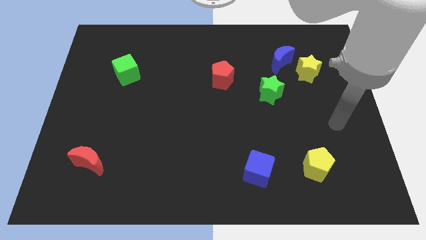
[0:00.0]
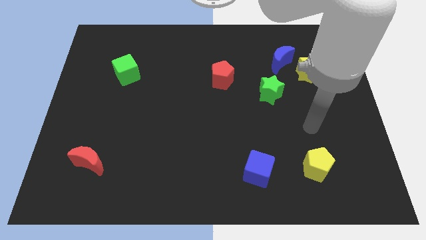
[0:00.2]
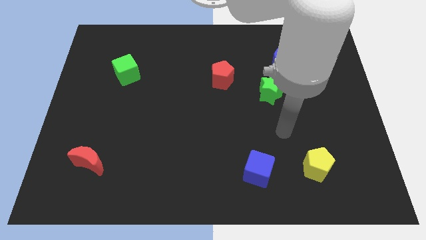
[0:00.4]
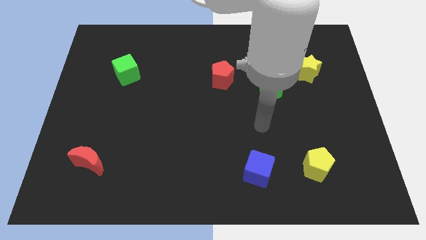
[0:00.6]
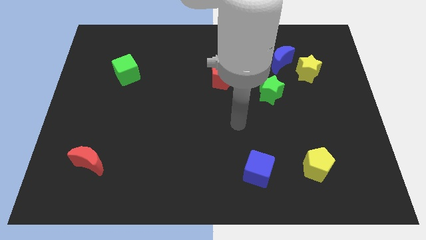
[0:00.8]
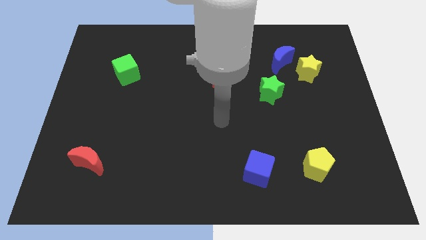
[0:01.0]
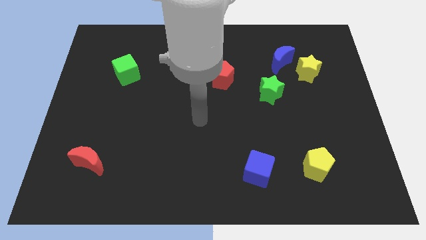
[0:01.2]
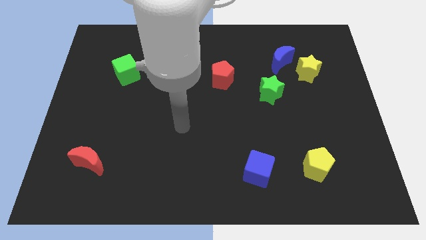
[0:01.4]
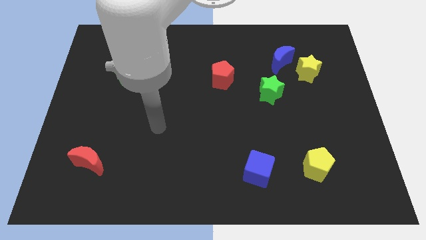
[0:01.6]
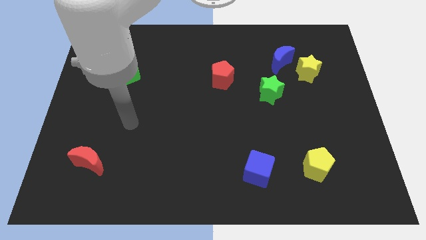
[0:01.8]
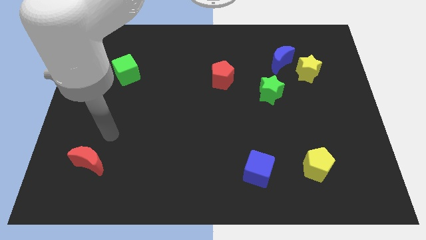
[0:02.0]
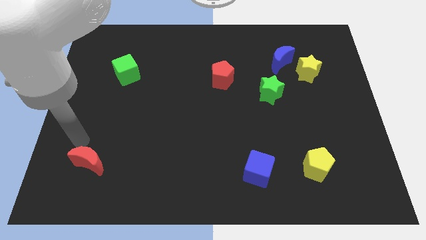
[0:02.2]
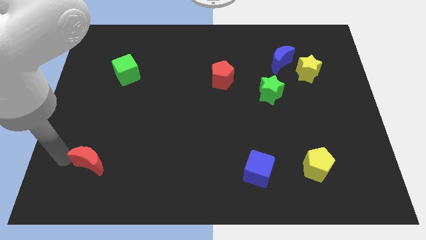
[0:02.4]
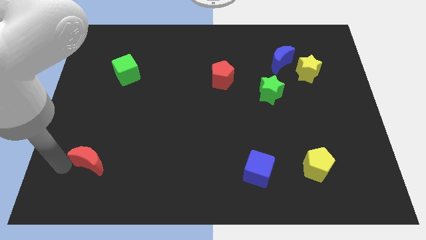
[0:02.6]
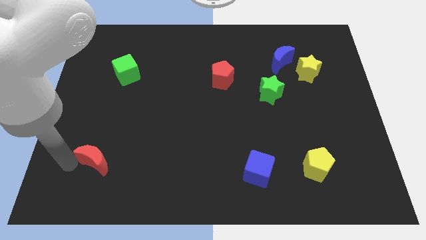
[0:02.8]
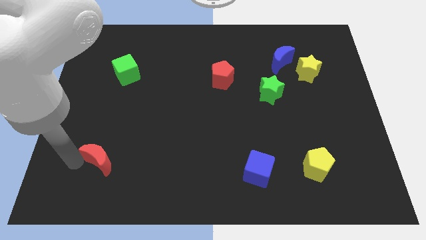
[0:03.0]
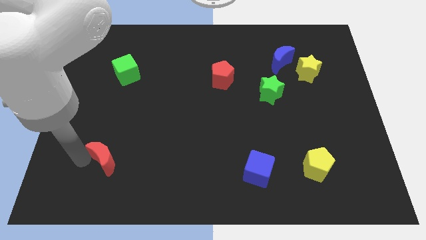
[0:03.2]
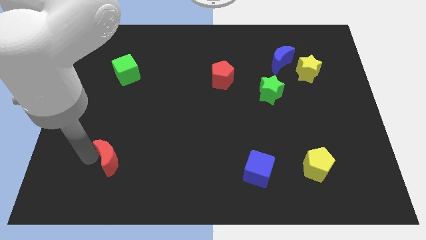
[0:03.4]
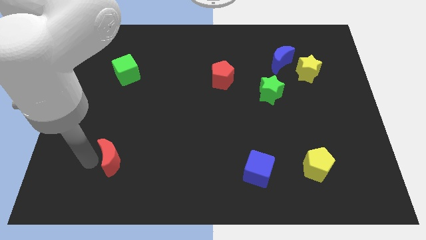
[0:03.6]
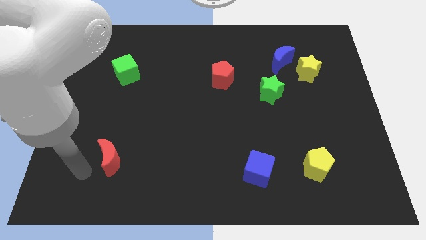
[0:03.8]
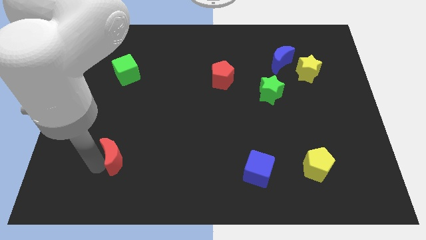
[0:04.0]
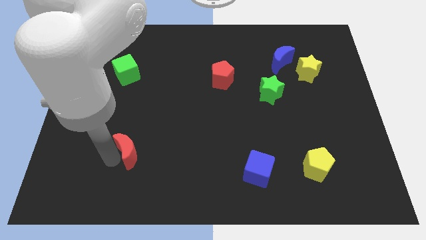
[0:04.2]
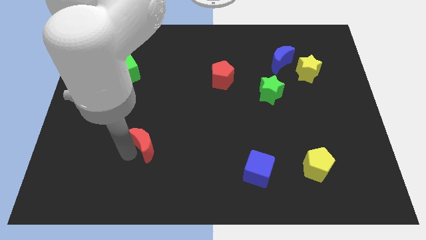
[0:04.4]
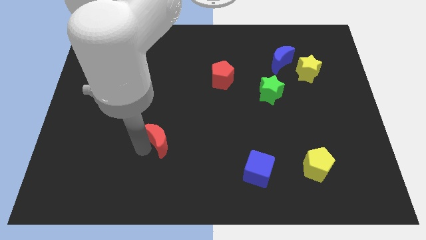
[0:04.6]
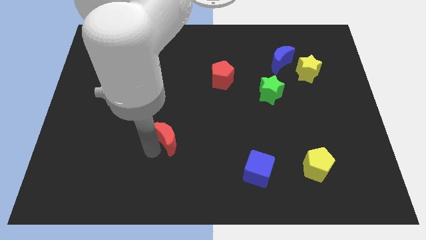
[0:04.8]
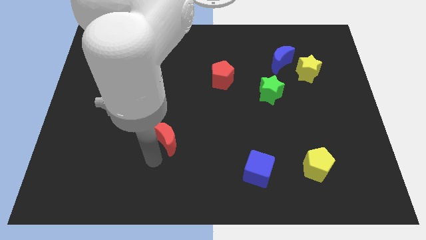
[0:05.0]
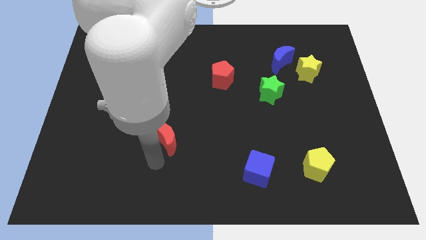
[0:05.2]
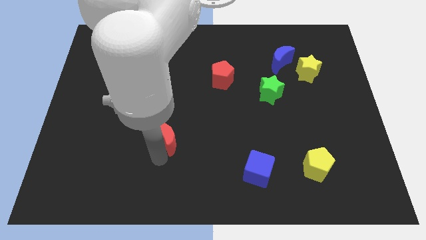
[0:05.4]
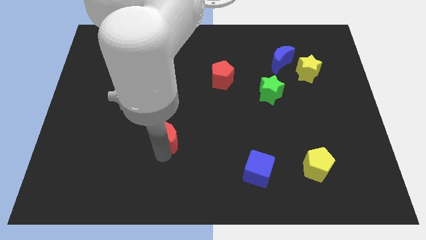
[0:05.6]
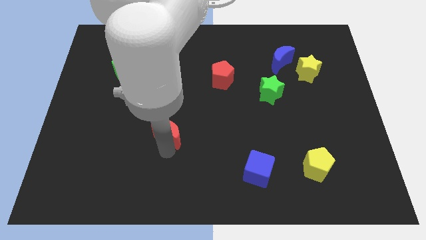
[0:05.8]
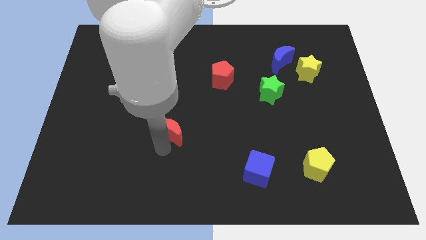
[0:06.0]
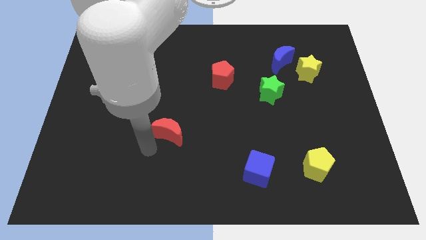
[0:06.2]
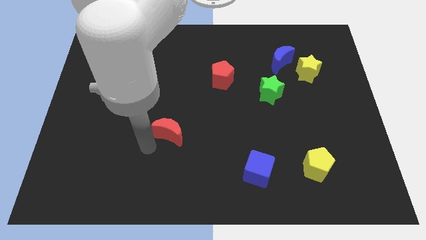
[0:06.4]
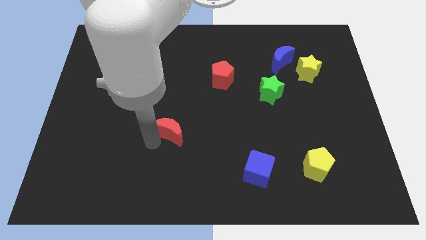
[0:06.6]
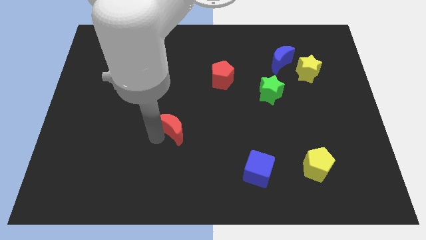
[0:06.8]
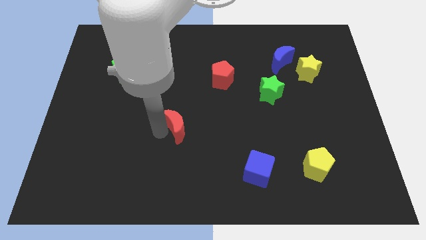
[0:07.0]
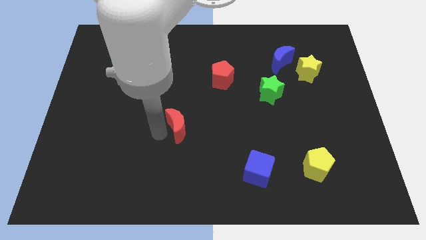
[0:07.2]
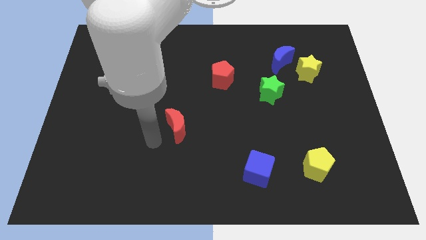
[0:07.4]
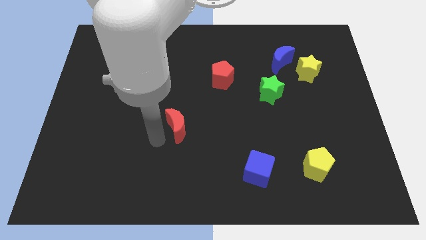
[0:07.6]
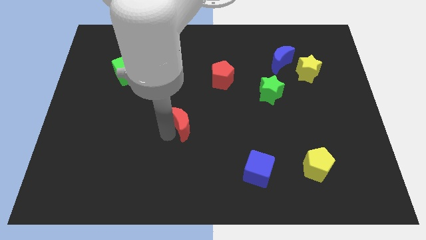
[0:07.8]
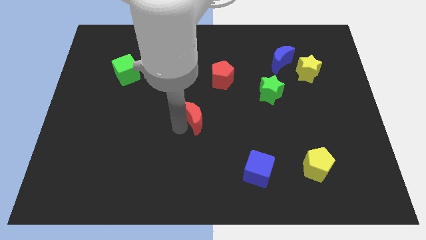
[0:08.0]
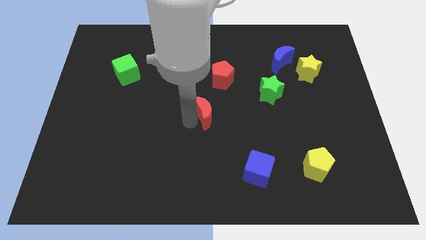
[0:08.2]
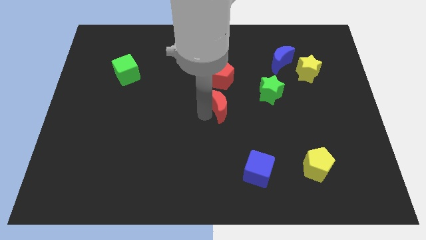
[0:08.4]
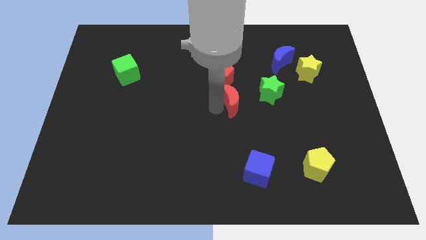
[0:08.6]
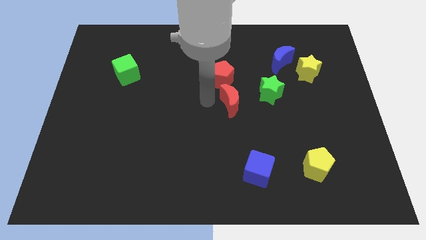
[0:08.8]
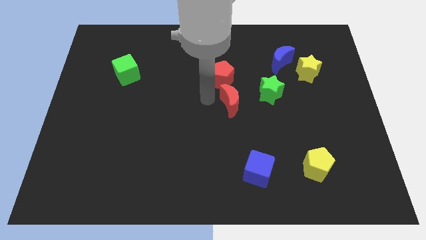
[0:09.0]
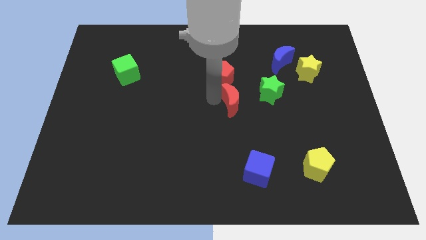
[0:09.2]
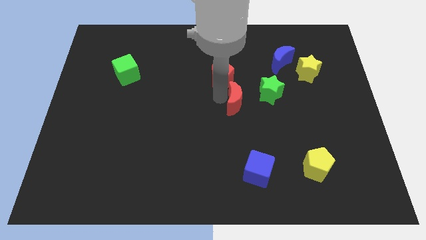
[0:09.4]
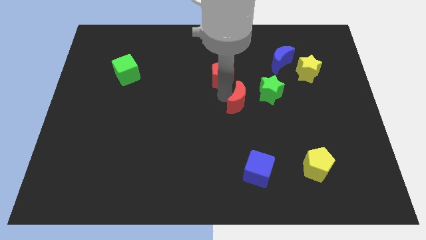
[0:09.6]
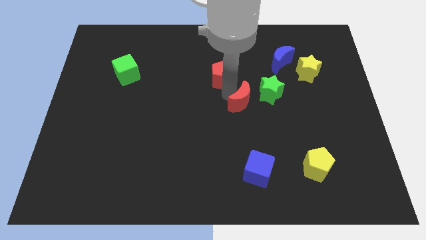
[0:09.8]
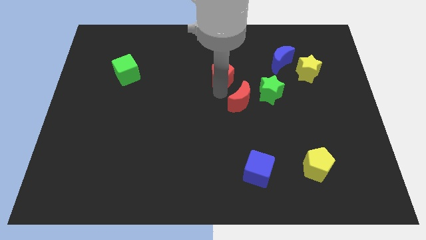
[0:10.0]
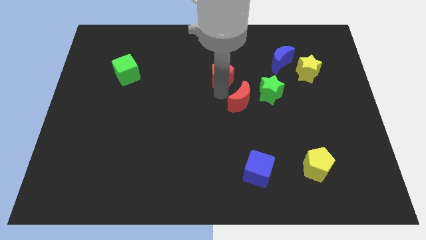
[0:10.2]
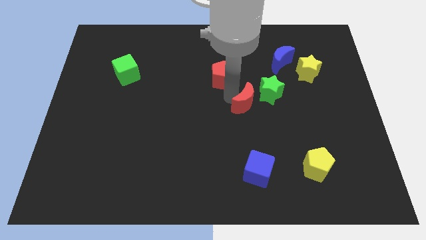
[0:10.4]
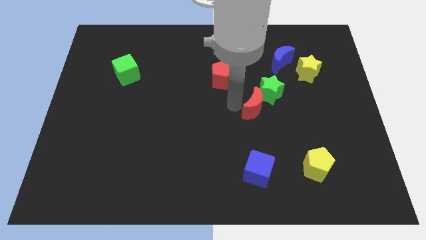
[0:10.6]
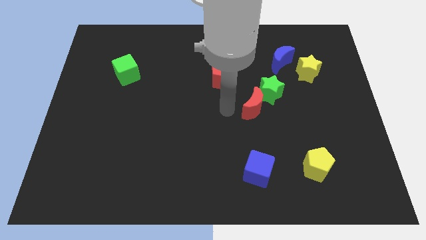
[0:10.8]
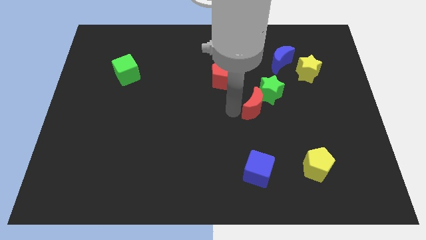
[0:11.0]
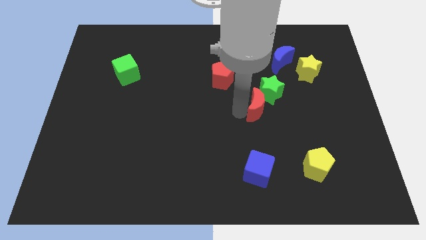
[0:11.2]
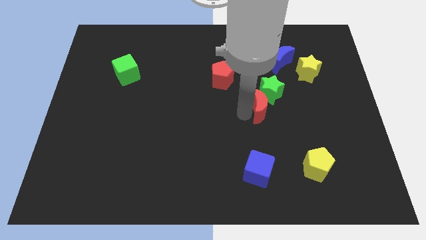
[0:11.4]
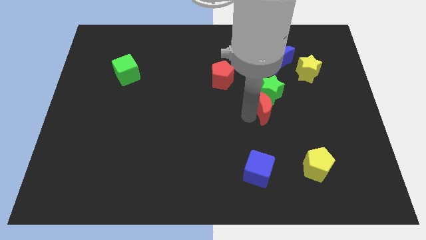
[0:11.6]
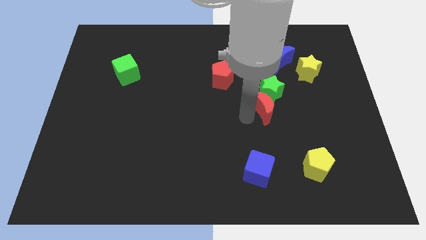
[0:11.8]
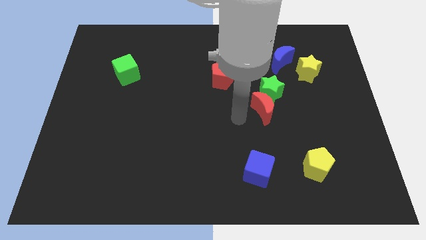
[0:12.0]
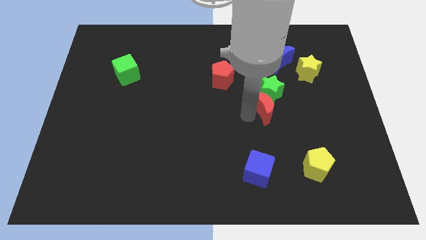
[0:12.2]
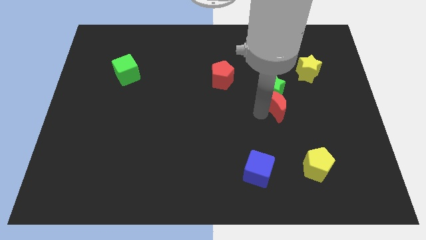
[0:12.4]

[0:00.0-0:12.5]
put the red moon to the bottom side of the blue moon

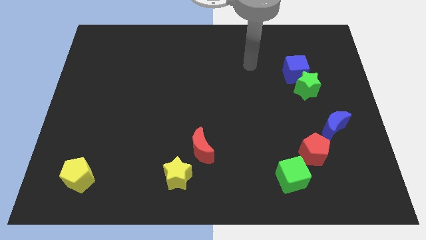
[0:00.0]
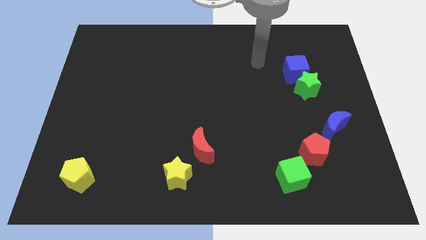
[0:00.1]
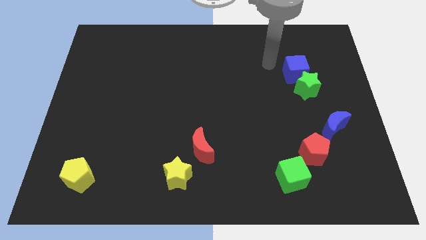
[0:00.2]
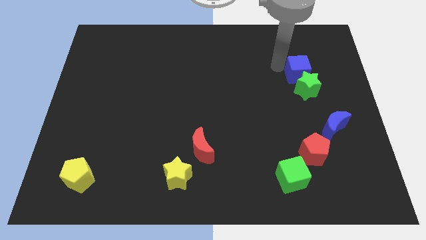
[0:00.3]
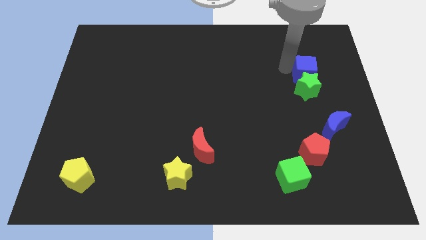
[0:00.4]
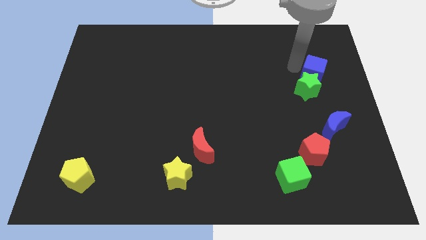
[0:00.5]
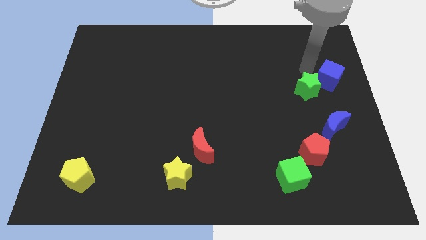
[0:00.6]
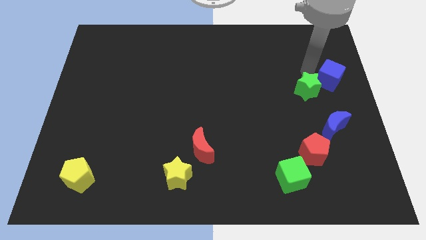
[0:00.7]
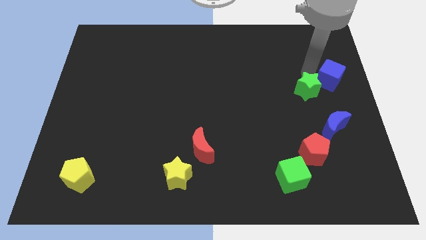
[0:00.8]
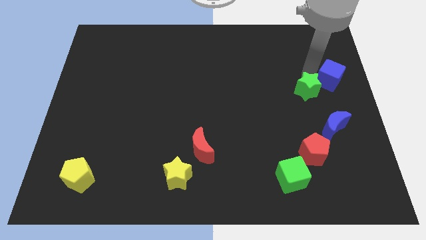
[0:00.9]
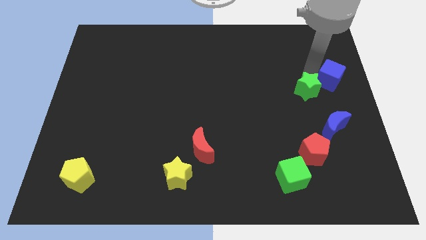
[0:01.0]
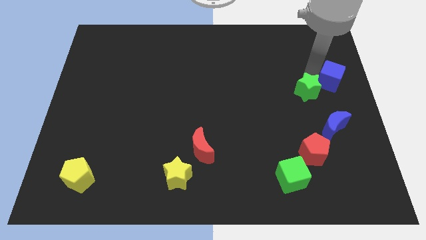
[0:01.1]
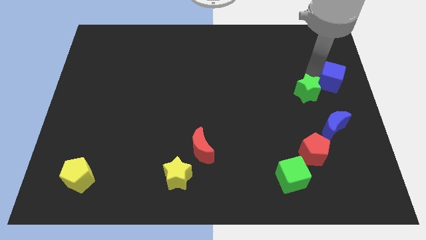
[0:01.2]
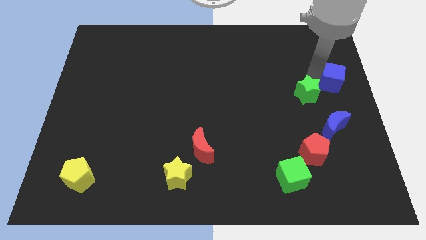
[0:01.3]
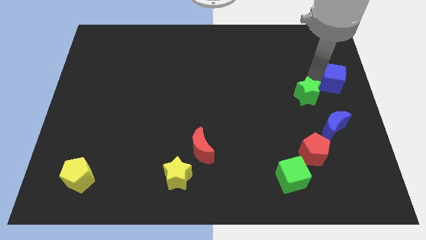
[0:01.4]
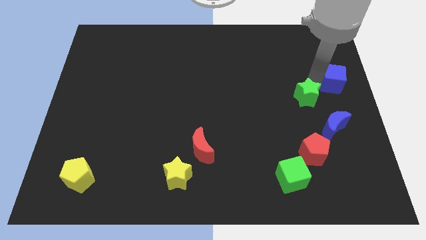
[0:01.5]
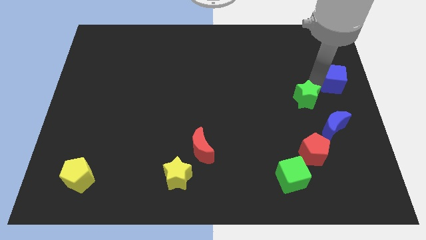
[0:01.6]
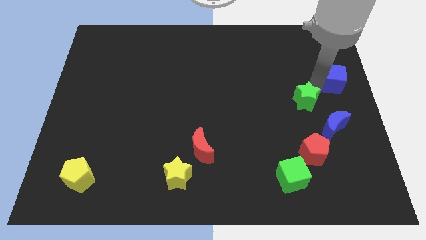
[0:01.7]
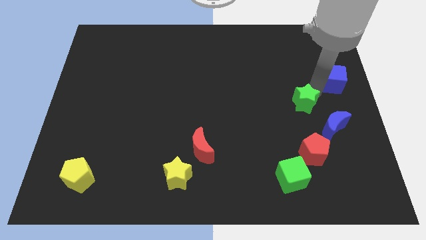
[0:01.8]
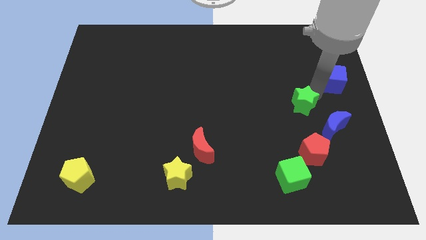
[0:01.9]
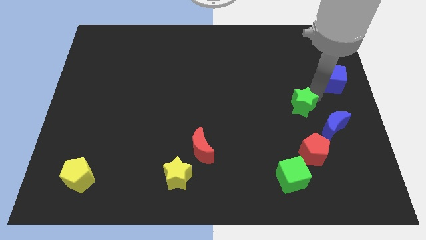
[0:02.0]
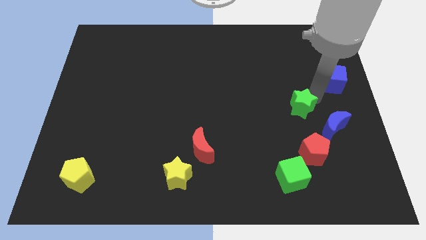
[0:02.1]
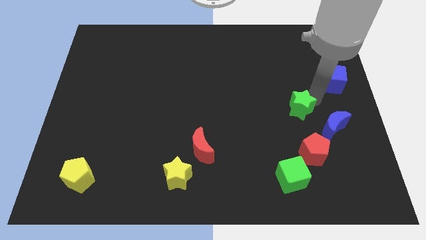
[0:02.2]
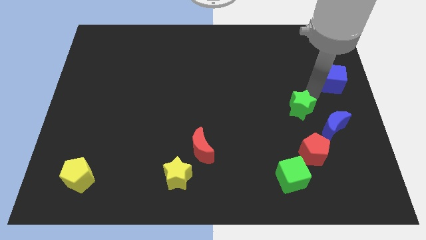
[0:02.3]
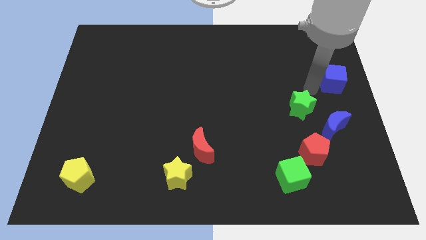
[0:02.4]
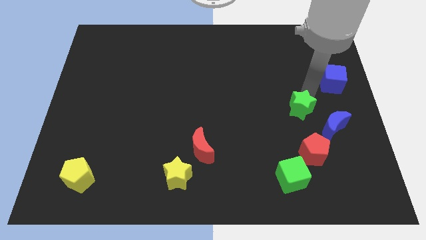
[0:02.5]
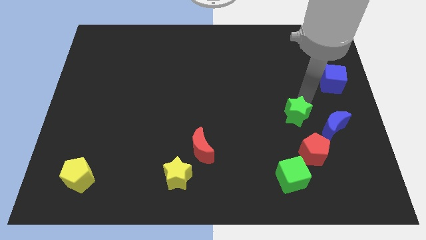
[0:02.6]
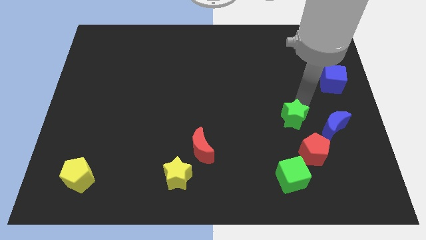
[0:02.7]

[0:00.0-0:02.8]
slide the green star above the green cube
